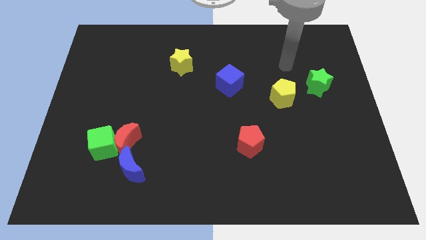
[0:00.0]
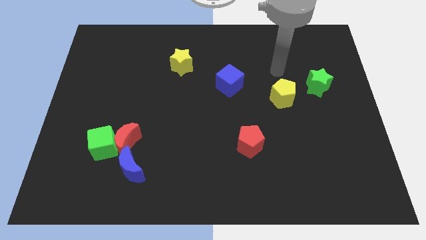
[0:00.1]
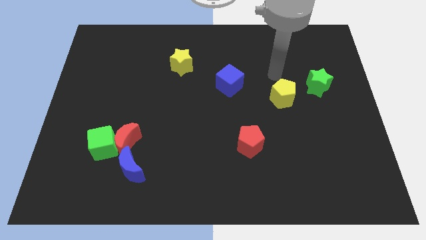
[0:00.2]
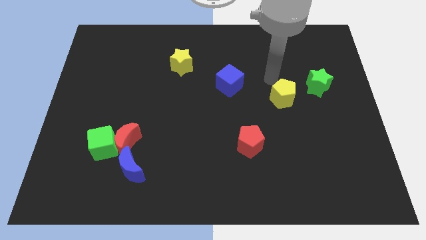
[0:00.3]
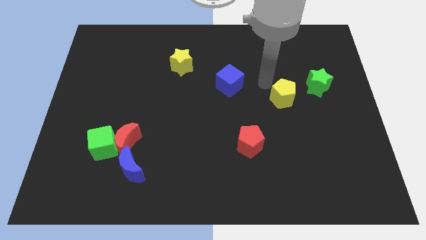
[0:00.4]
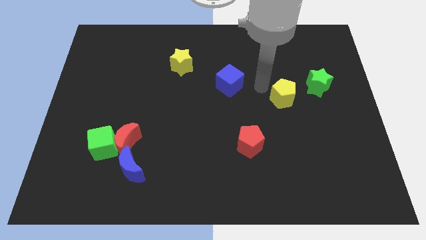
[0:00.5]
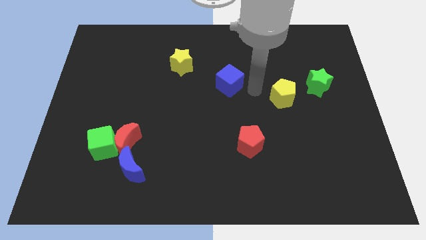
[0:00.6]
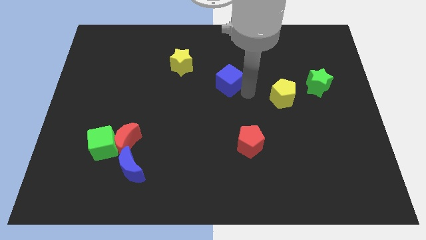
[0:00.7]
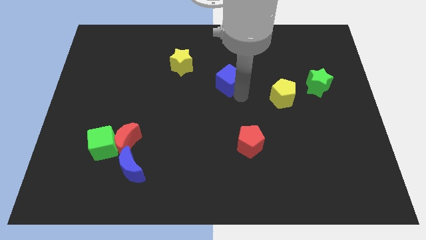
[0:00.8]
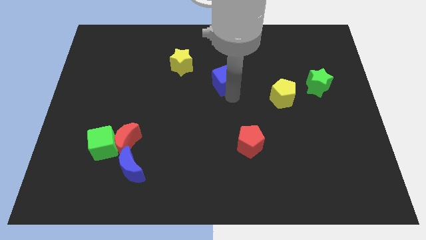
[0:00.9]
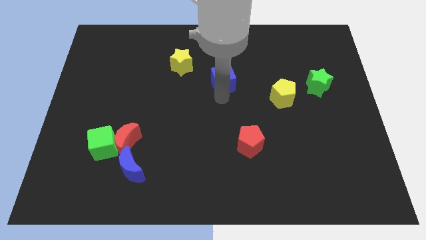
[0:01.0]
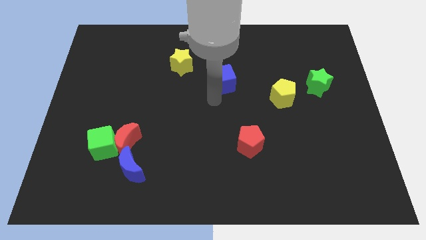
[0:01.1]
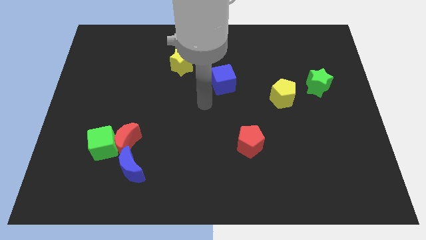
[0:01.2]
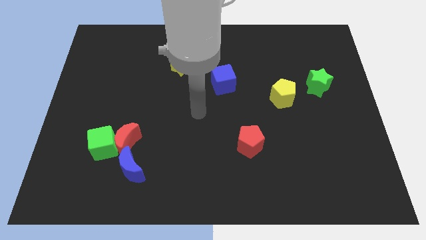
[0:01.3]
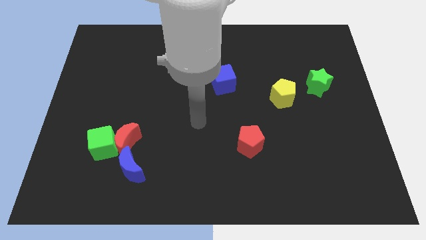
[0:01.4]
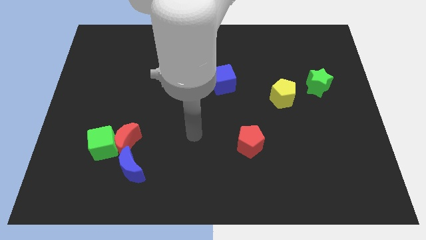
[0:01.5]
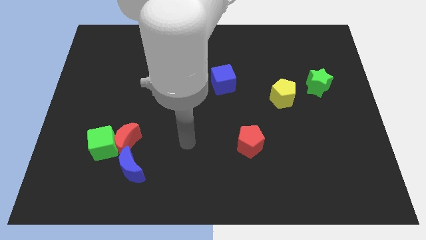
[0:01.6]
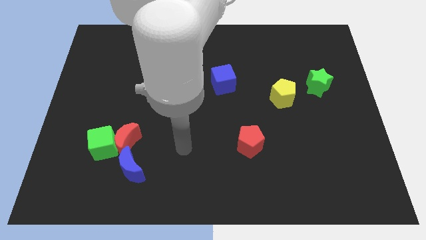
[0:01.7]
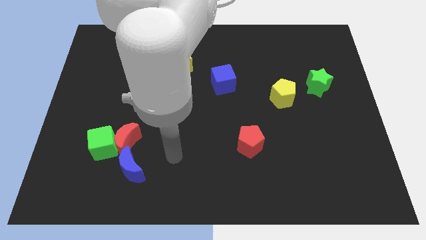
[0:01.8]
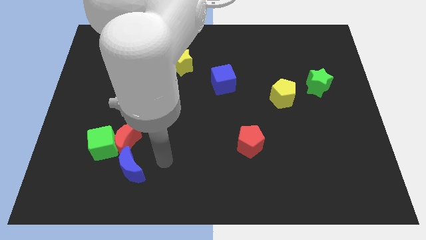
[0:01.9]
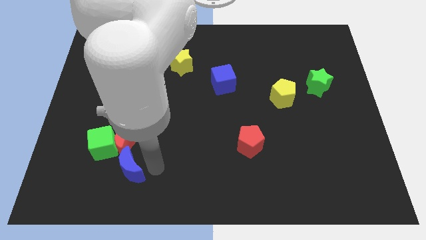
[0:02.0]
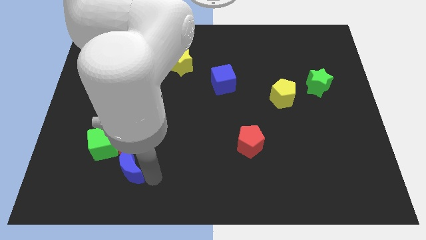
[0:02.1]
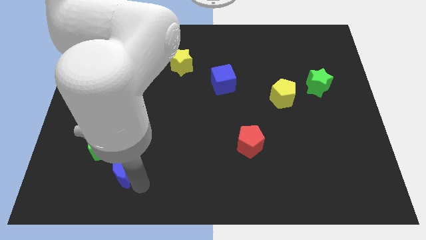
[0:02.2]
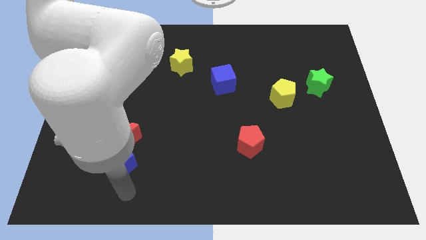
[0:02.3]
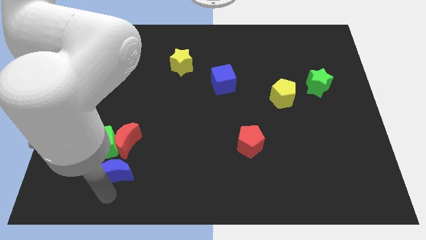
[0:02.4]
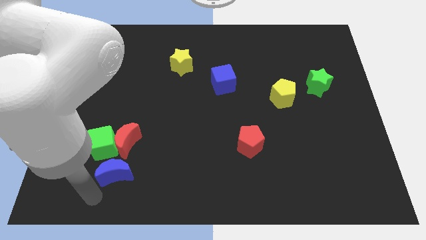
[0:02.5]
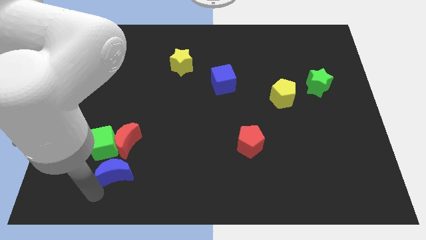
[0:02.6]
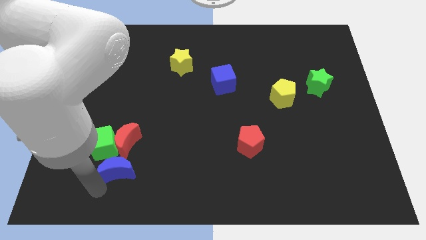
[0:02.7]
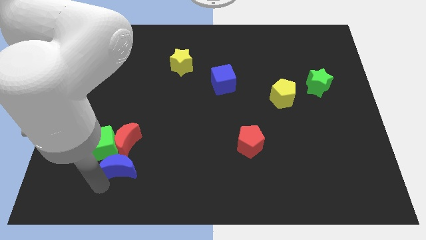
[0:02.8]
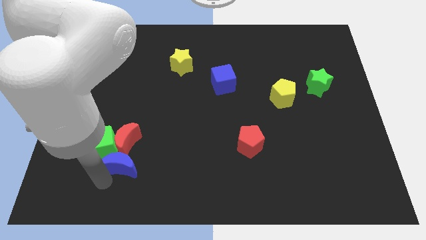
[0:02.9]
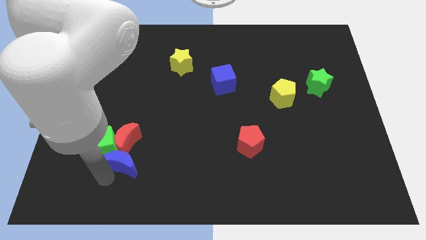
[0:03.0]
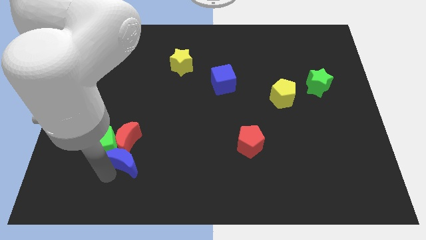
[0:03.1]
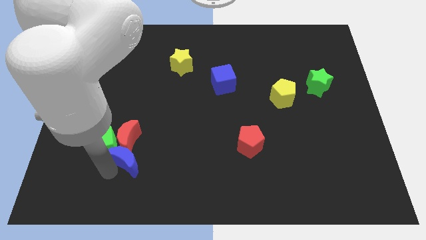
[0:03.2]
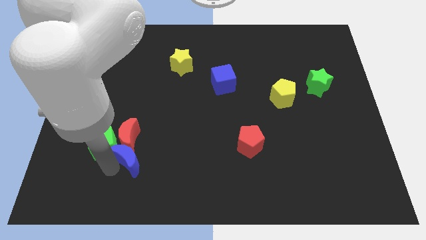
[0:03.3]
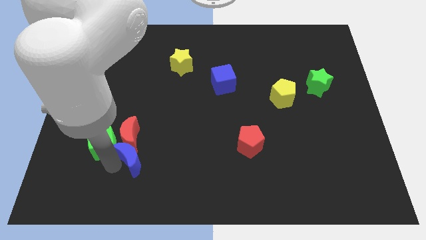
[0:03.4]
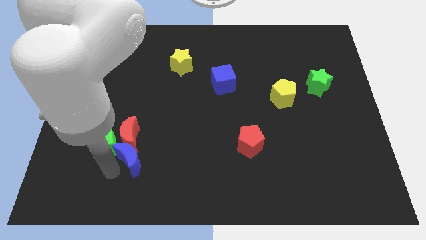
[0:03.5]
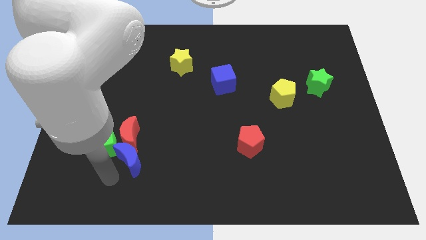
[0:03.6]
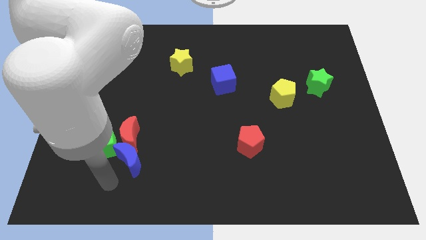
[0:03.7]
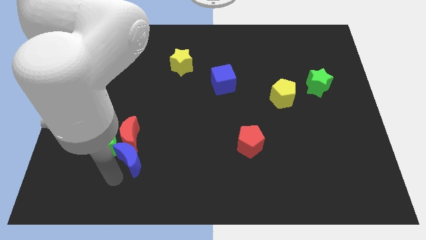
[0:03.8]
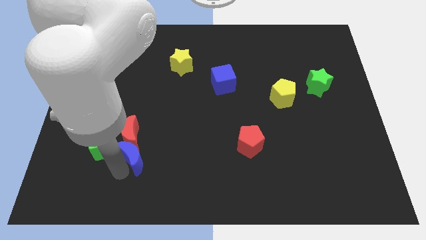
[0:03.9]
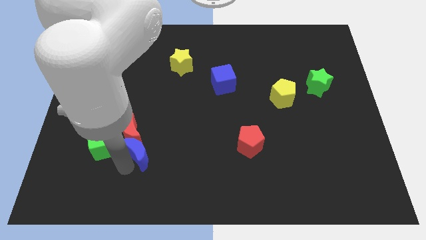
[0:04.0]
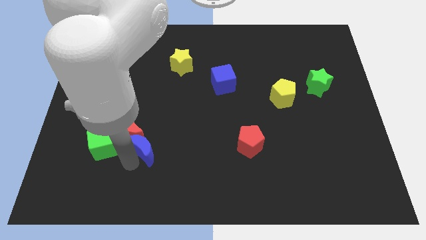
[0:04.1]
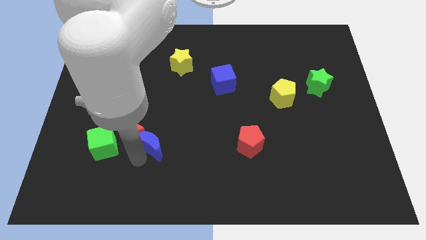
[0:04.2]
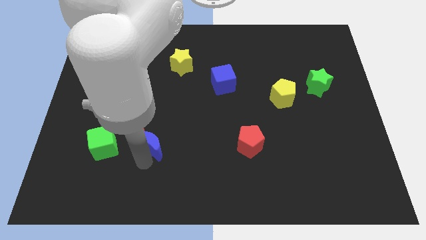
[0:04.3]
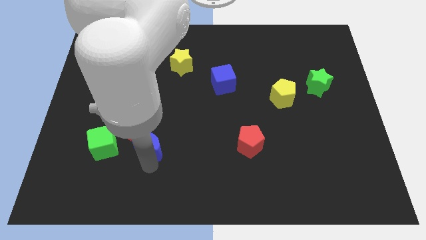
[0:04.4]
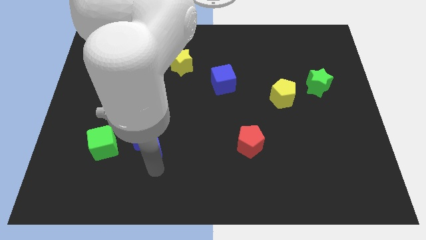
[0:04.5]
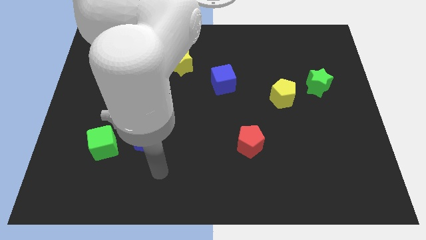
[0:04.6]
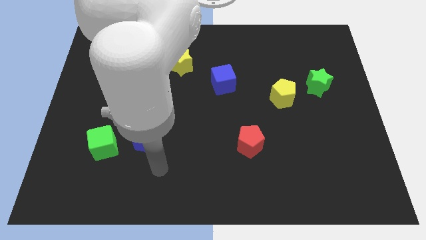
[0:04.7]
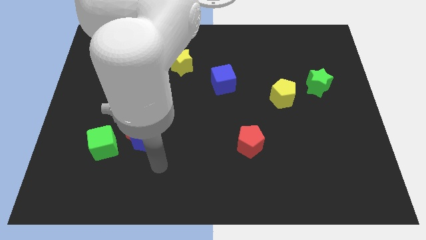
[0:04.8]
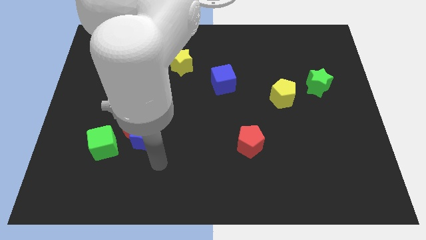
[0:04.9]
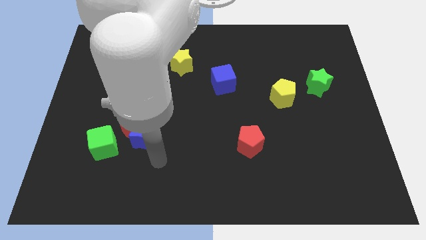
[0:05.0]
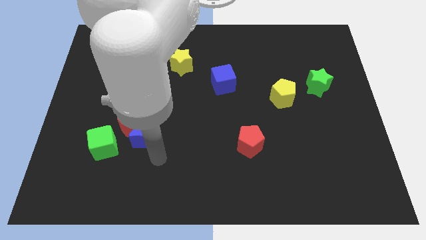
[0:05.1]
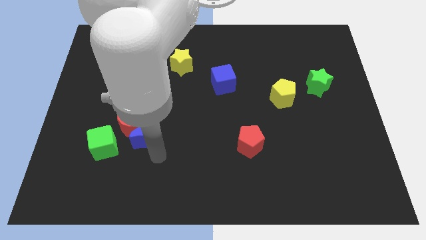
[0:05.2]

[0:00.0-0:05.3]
slightly push the blue moon up

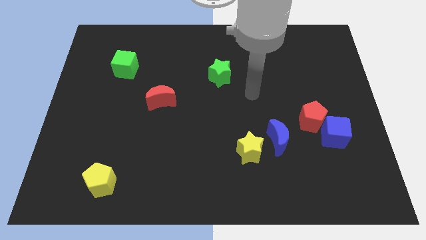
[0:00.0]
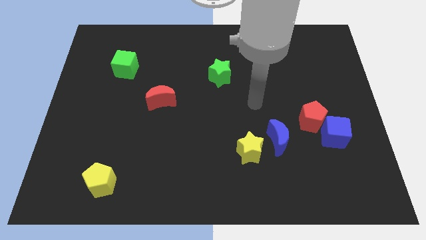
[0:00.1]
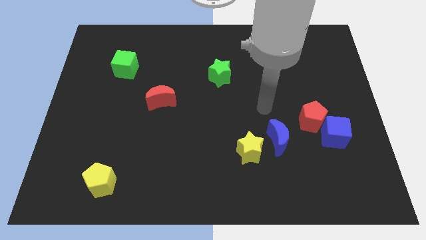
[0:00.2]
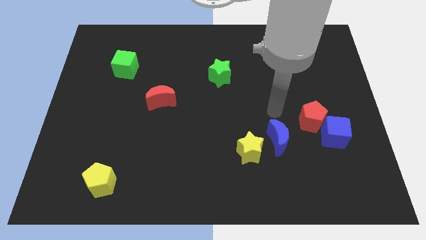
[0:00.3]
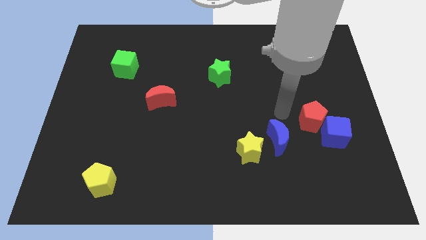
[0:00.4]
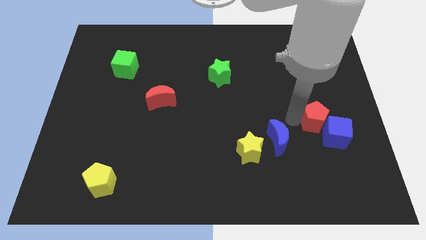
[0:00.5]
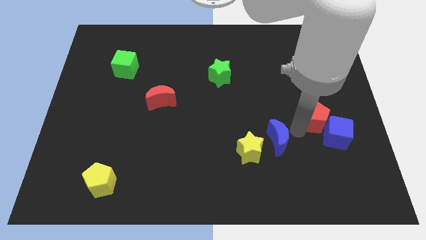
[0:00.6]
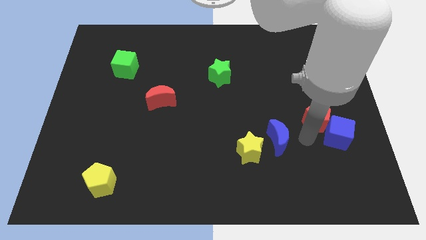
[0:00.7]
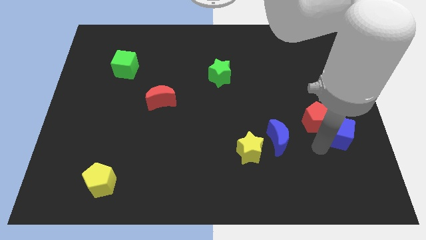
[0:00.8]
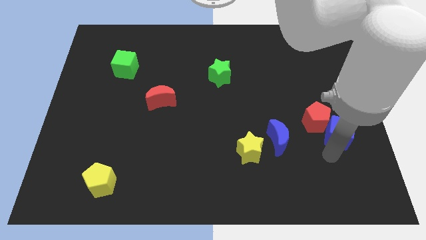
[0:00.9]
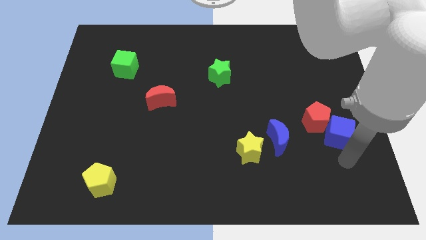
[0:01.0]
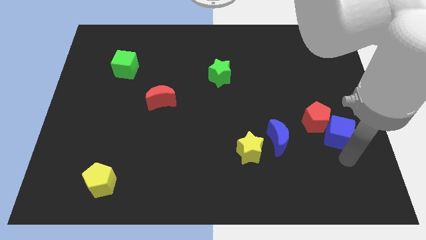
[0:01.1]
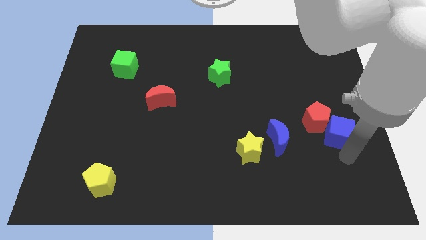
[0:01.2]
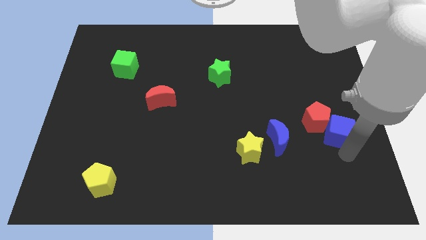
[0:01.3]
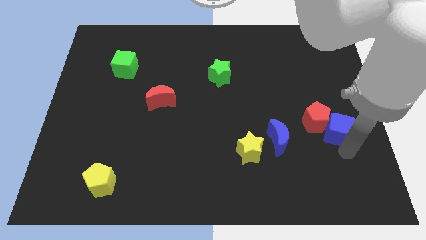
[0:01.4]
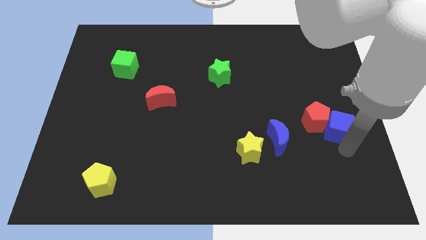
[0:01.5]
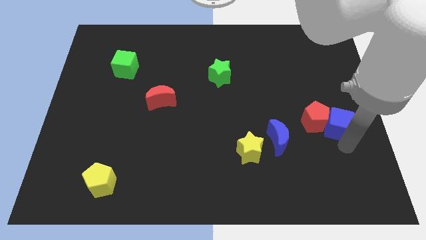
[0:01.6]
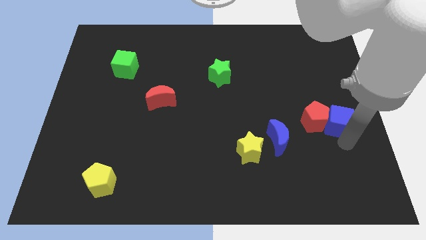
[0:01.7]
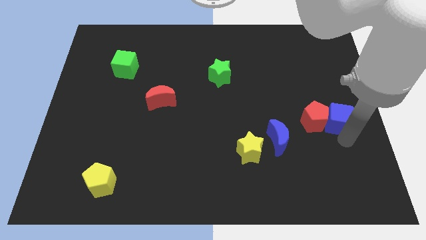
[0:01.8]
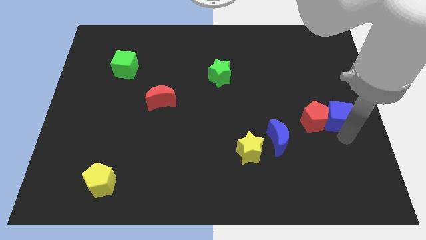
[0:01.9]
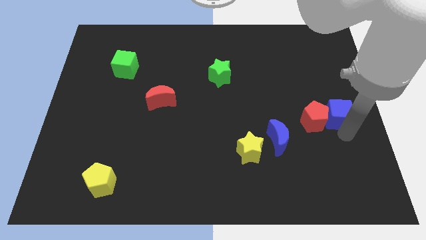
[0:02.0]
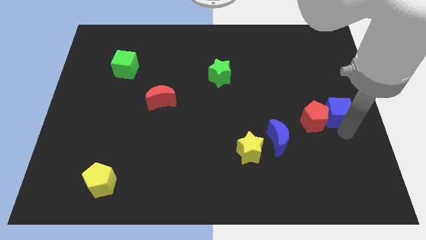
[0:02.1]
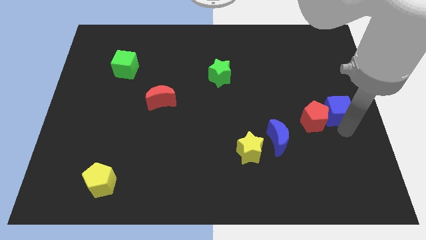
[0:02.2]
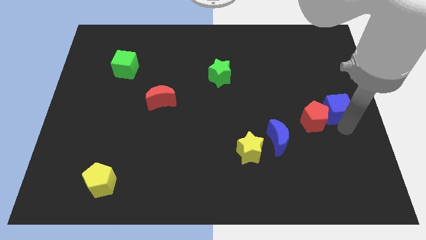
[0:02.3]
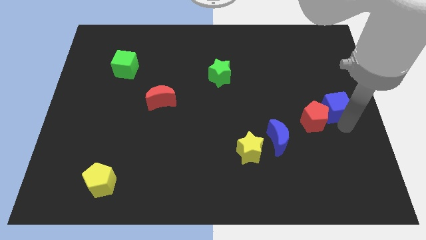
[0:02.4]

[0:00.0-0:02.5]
slightly slide the blue cube up

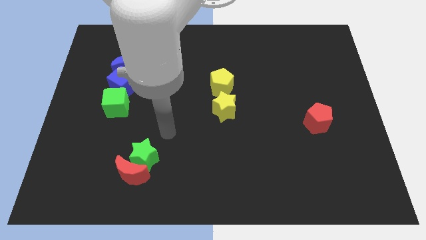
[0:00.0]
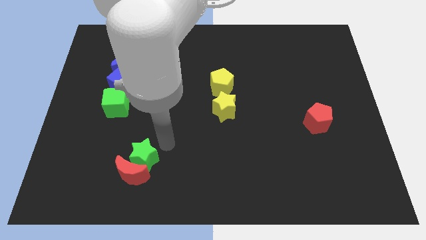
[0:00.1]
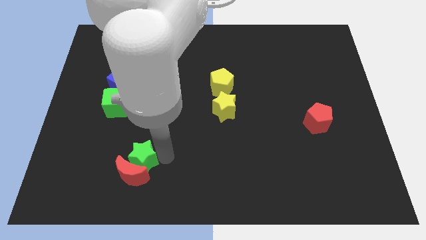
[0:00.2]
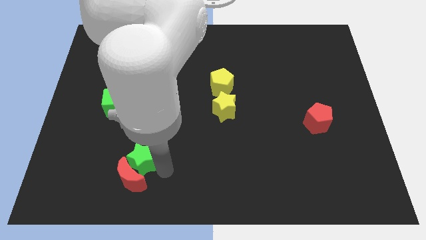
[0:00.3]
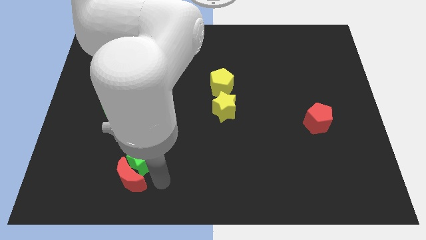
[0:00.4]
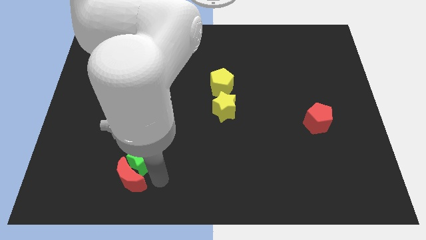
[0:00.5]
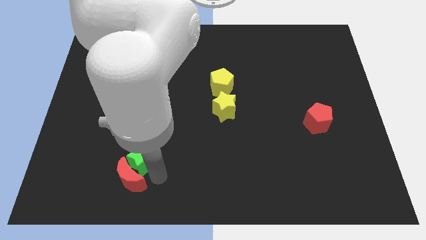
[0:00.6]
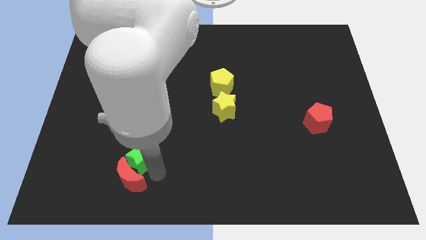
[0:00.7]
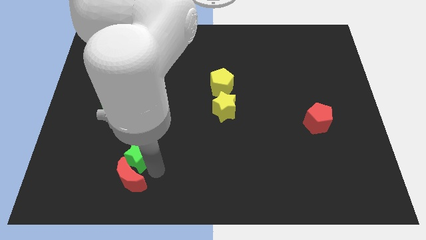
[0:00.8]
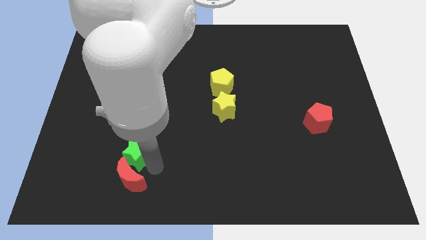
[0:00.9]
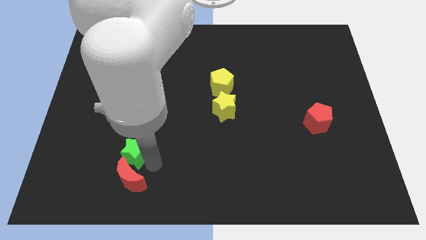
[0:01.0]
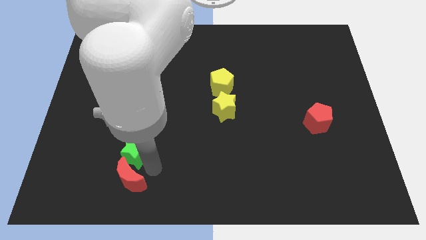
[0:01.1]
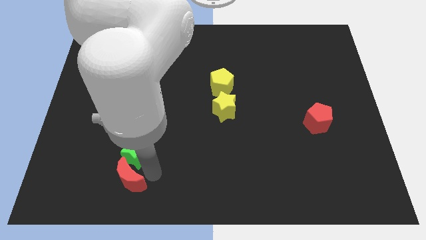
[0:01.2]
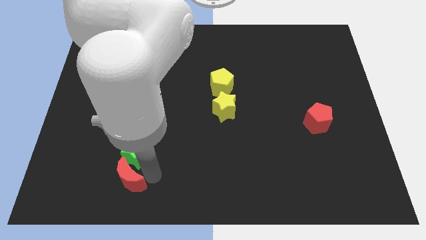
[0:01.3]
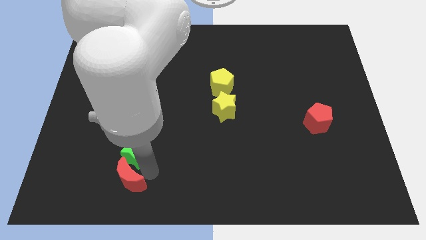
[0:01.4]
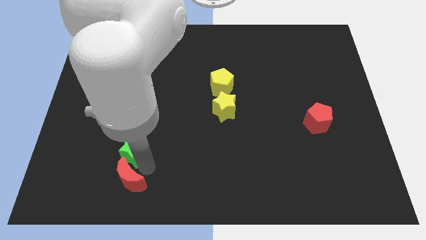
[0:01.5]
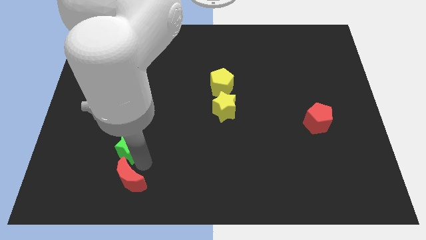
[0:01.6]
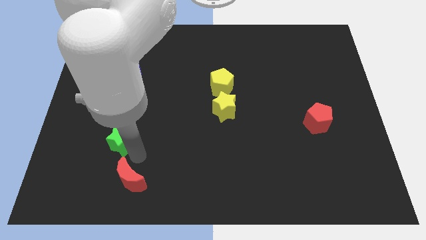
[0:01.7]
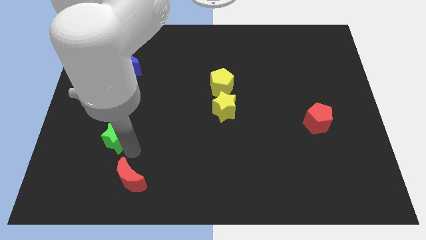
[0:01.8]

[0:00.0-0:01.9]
slide the green star upwards and then left a little
